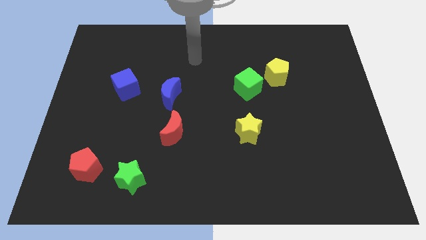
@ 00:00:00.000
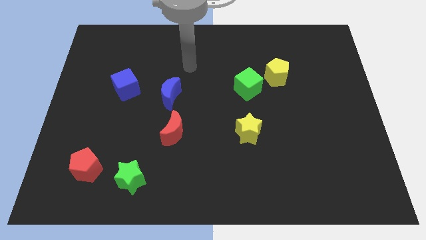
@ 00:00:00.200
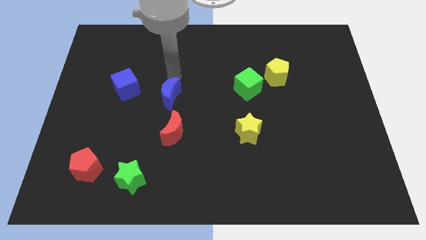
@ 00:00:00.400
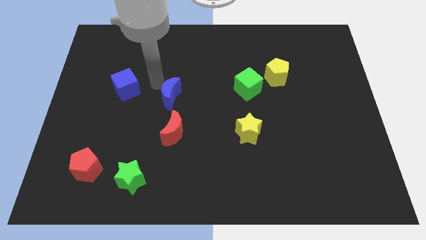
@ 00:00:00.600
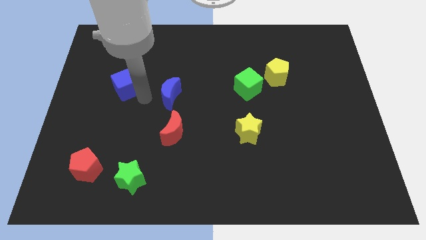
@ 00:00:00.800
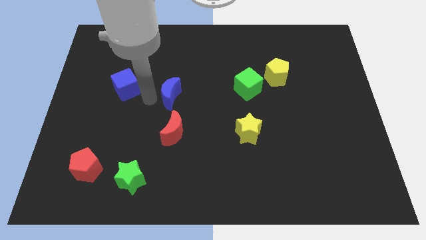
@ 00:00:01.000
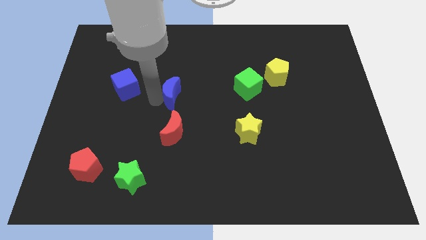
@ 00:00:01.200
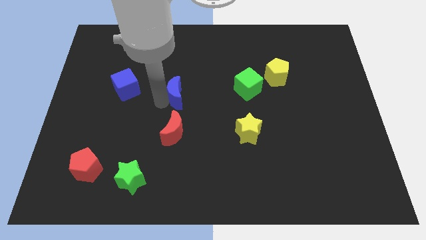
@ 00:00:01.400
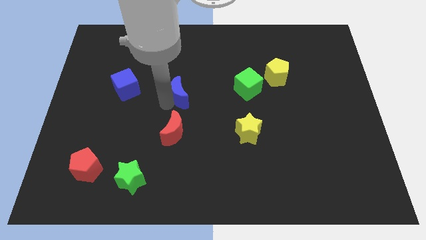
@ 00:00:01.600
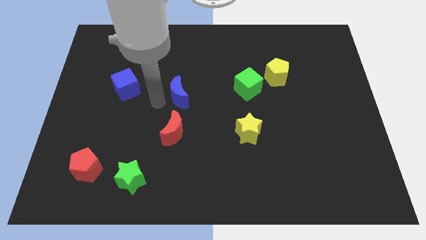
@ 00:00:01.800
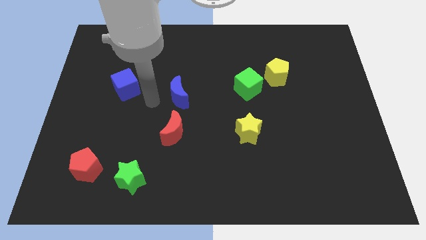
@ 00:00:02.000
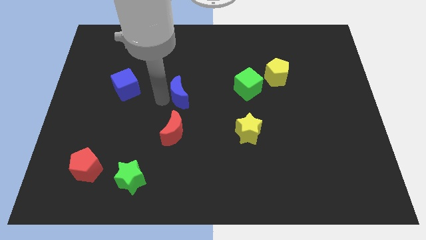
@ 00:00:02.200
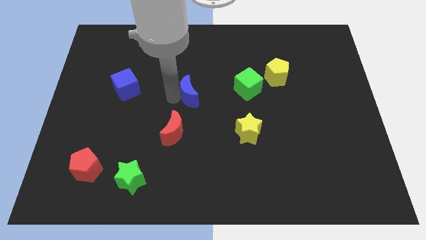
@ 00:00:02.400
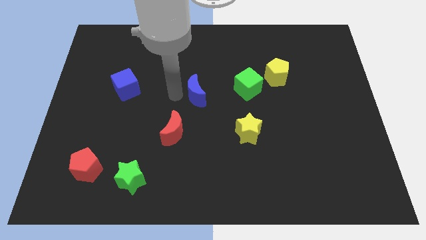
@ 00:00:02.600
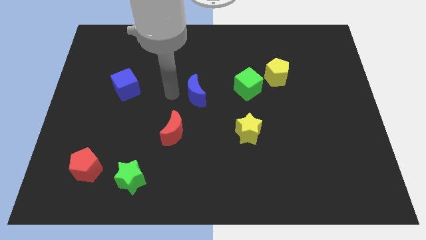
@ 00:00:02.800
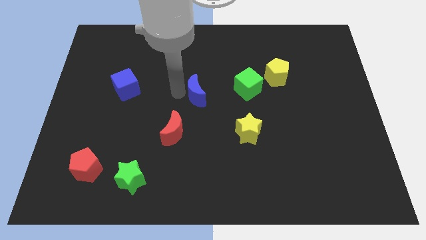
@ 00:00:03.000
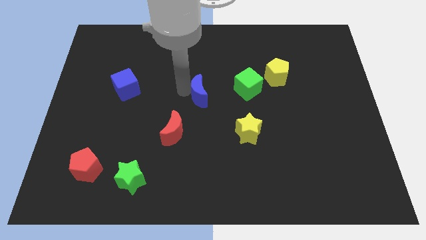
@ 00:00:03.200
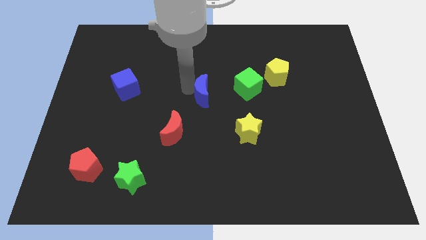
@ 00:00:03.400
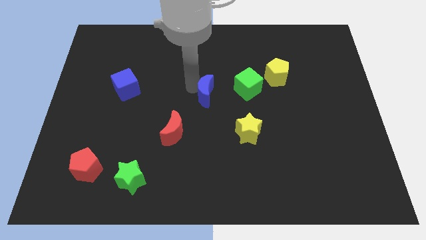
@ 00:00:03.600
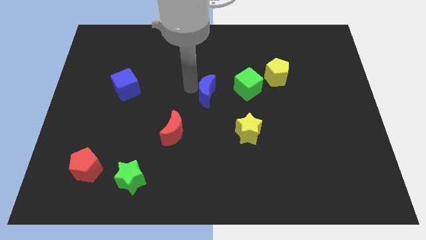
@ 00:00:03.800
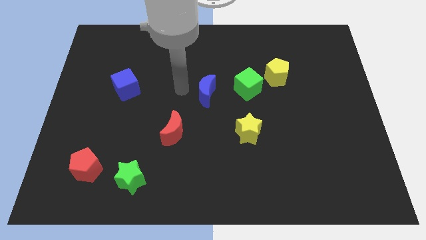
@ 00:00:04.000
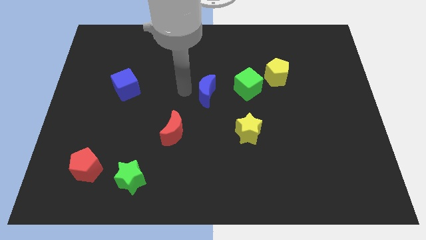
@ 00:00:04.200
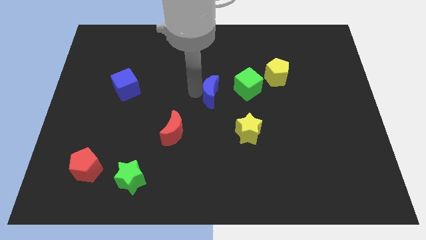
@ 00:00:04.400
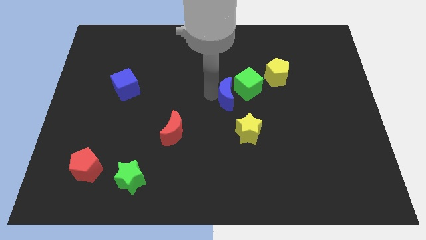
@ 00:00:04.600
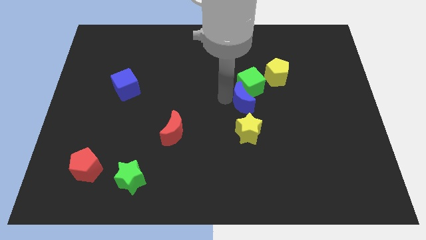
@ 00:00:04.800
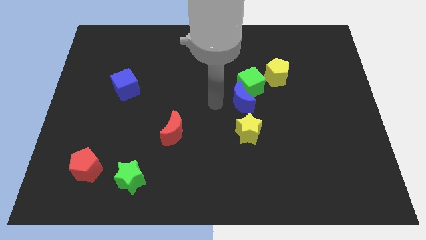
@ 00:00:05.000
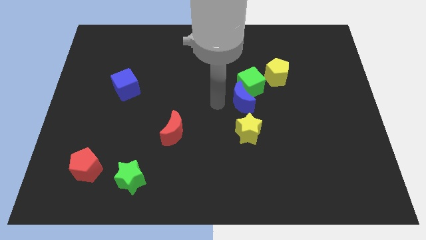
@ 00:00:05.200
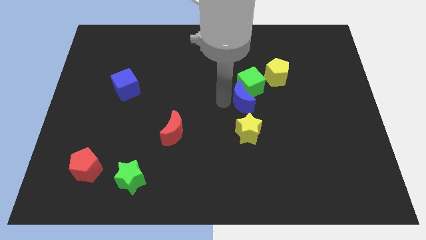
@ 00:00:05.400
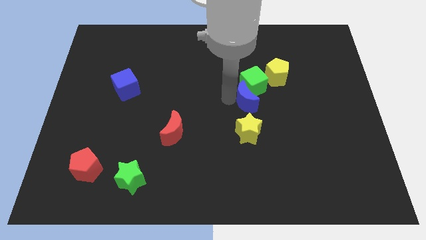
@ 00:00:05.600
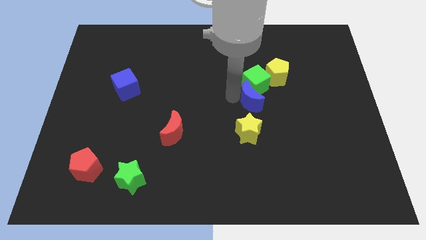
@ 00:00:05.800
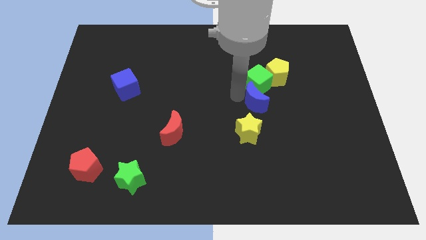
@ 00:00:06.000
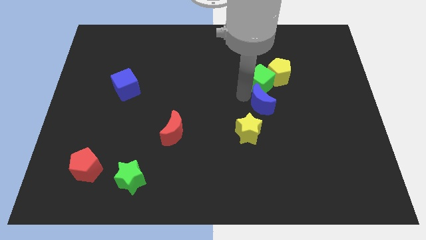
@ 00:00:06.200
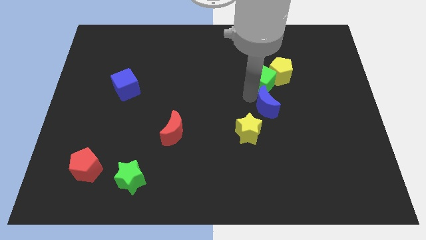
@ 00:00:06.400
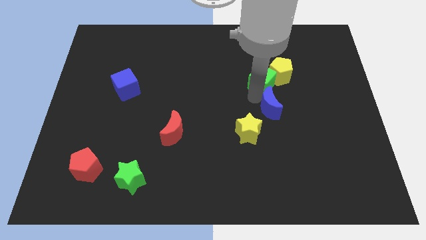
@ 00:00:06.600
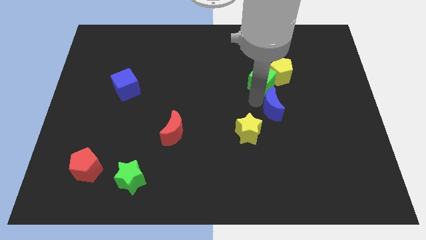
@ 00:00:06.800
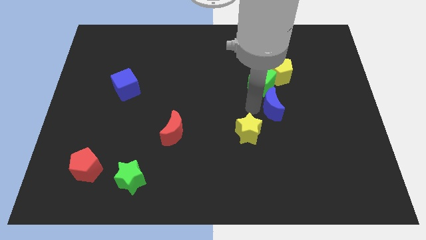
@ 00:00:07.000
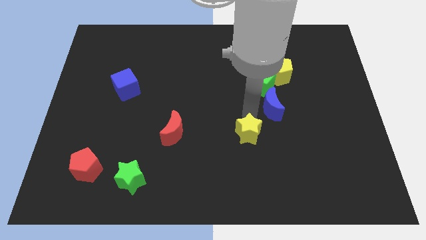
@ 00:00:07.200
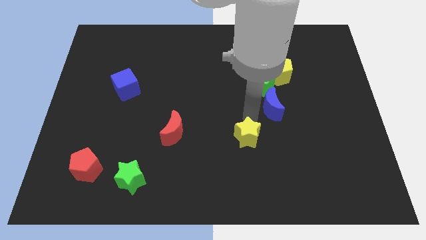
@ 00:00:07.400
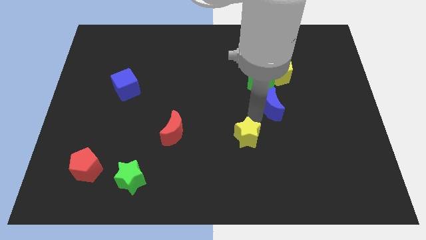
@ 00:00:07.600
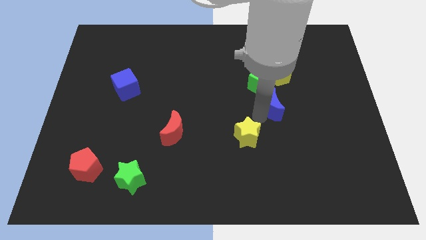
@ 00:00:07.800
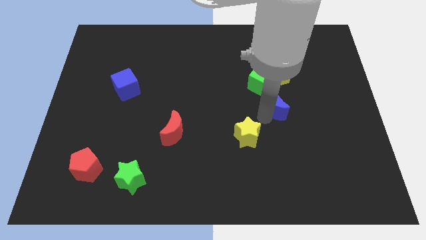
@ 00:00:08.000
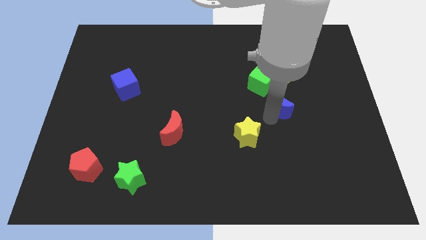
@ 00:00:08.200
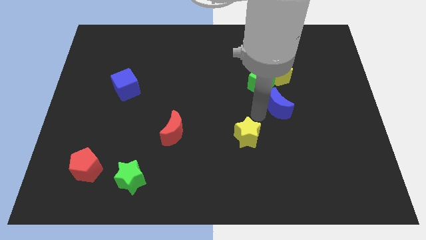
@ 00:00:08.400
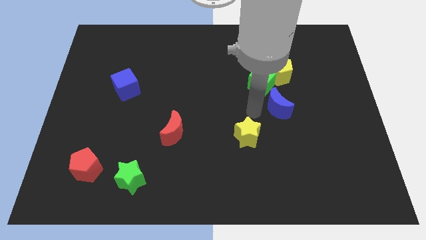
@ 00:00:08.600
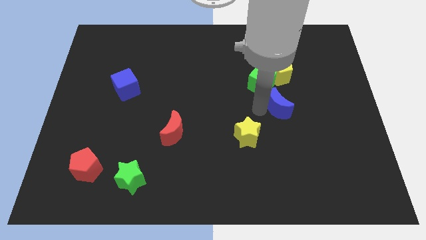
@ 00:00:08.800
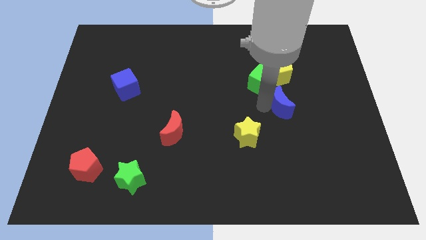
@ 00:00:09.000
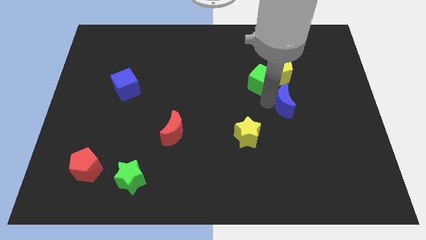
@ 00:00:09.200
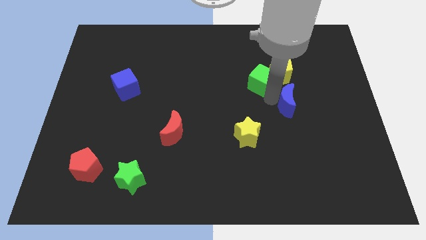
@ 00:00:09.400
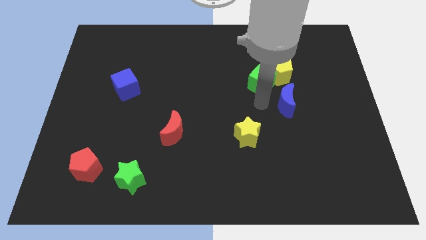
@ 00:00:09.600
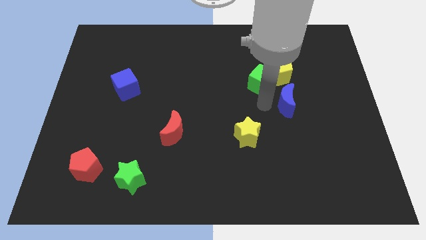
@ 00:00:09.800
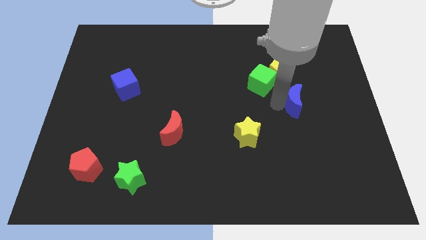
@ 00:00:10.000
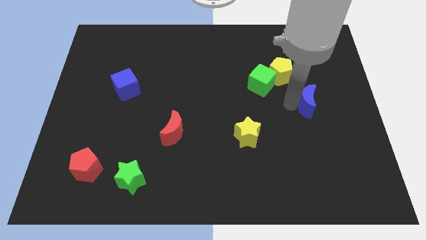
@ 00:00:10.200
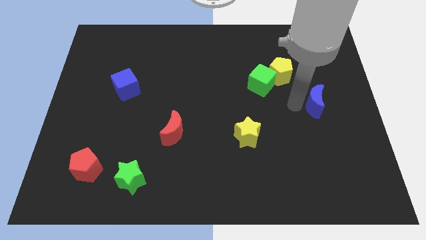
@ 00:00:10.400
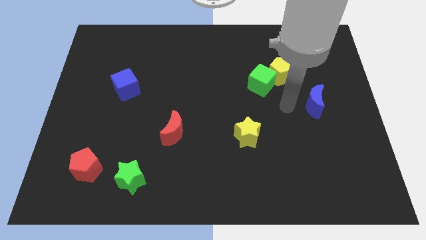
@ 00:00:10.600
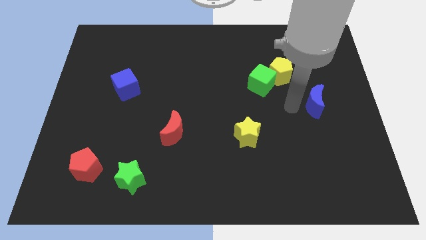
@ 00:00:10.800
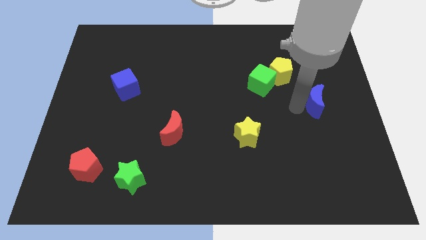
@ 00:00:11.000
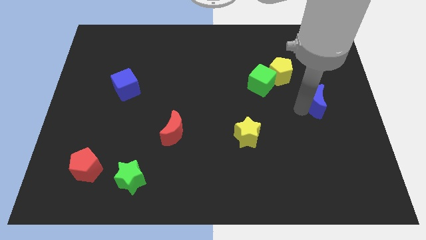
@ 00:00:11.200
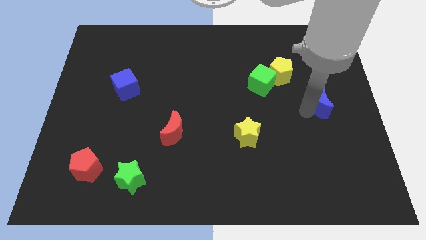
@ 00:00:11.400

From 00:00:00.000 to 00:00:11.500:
move the blue moon to the right side of the board

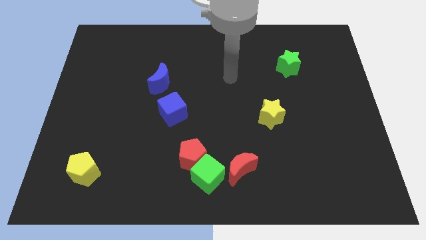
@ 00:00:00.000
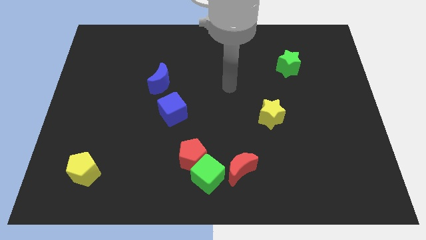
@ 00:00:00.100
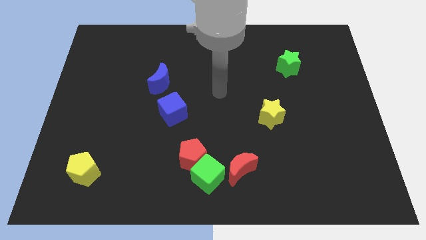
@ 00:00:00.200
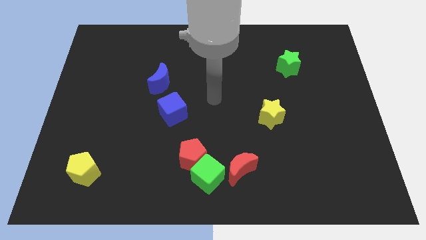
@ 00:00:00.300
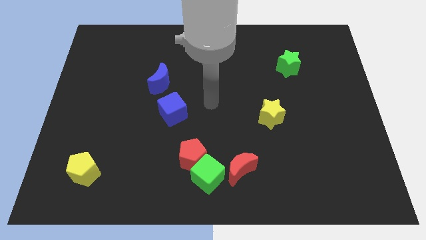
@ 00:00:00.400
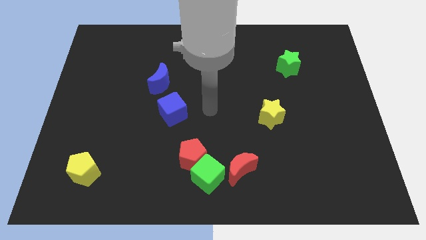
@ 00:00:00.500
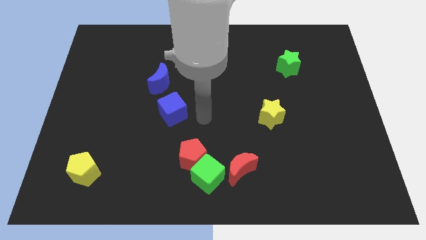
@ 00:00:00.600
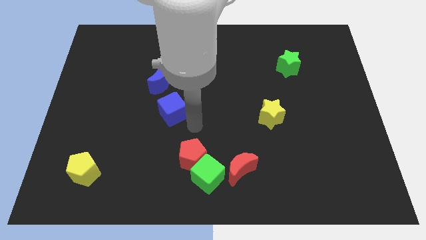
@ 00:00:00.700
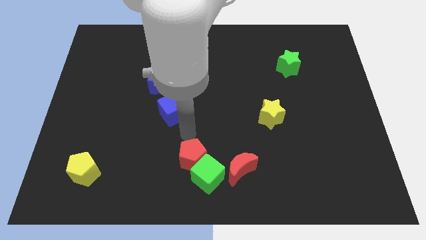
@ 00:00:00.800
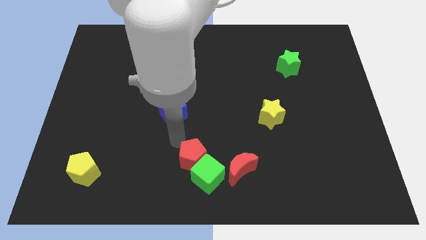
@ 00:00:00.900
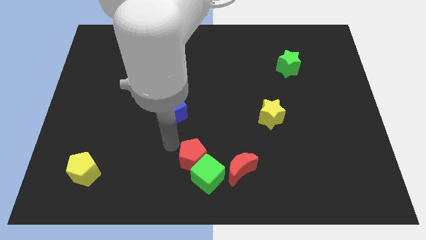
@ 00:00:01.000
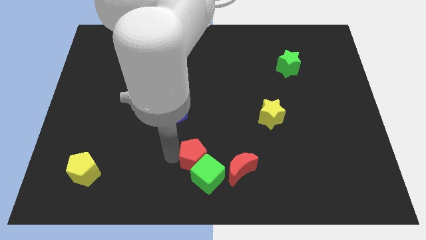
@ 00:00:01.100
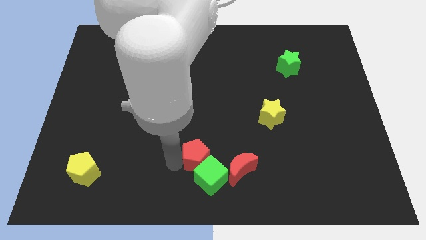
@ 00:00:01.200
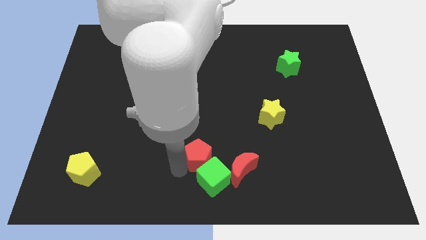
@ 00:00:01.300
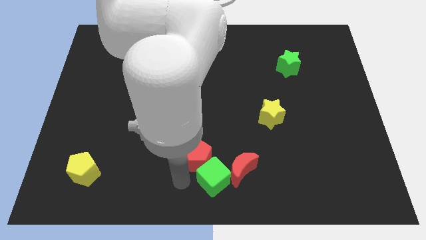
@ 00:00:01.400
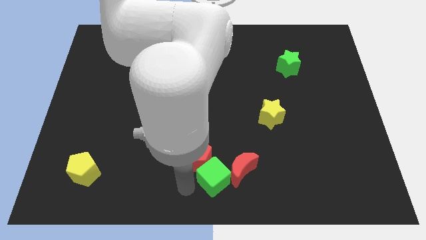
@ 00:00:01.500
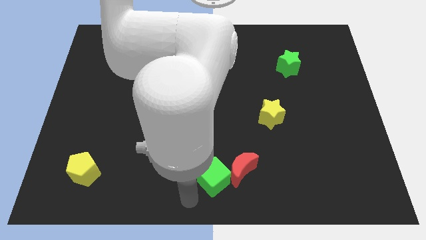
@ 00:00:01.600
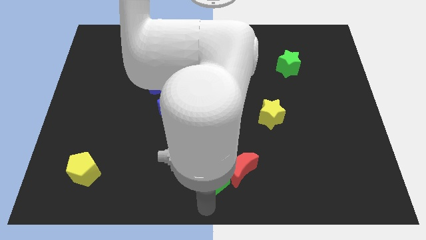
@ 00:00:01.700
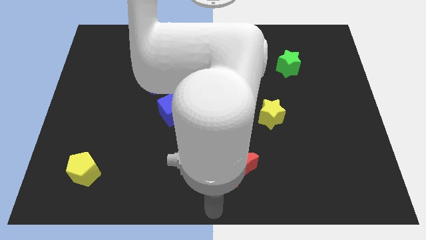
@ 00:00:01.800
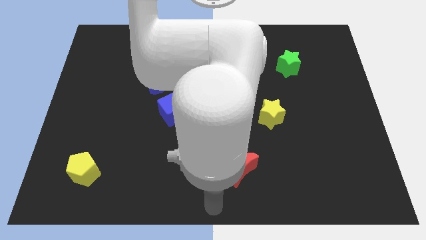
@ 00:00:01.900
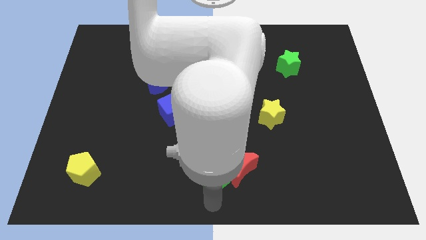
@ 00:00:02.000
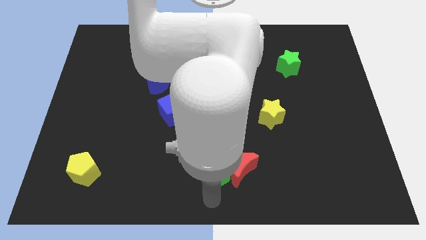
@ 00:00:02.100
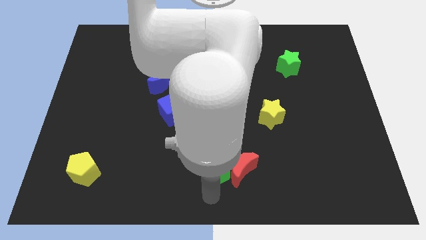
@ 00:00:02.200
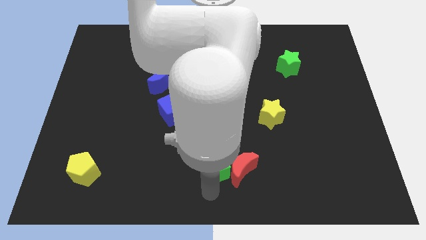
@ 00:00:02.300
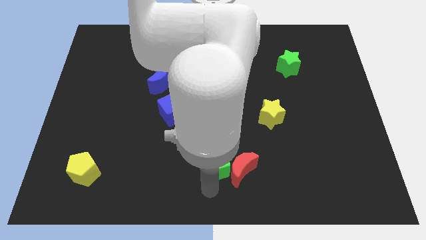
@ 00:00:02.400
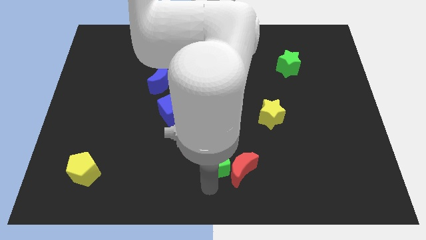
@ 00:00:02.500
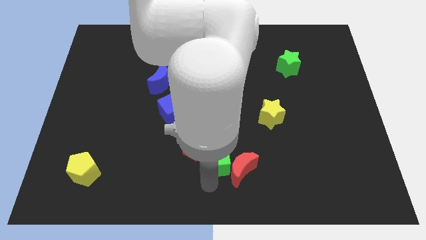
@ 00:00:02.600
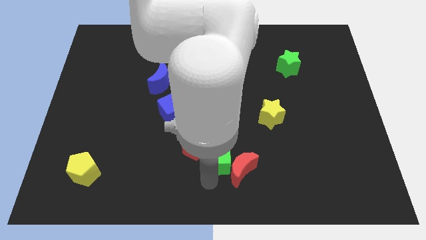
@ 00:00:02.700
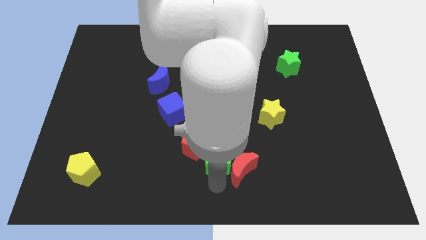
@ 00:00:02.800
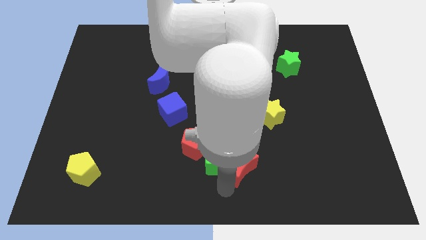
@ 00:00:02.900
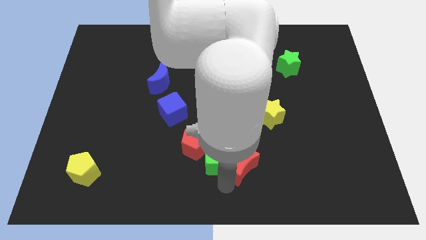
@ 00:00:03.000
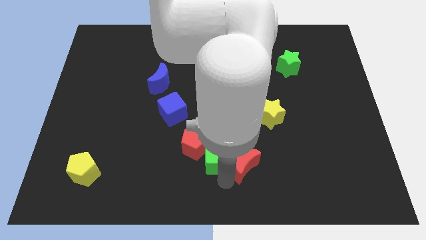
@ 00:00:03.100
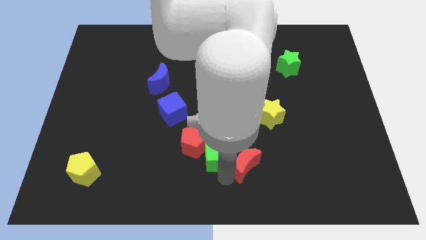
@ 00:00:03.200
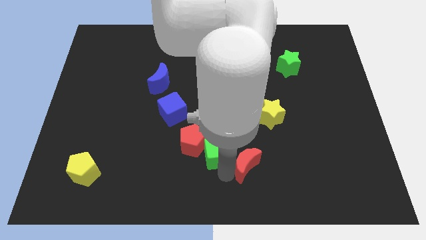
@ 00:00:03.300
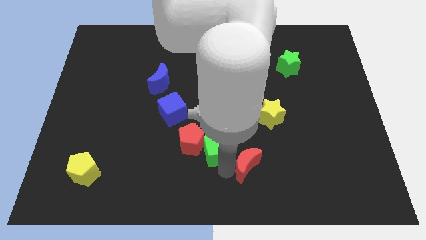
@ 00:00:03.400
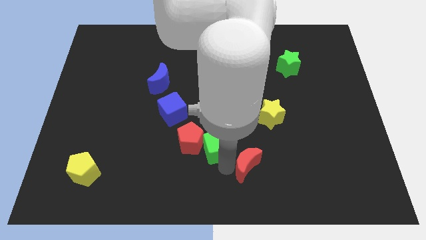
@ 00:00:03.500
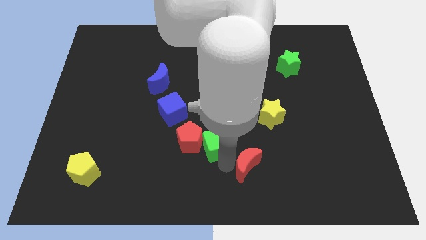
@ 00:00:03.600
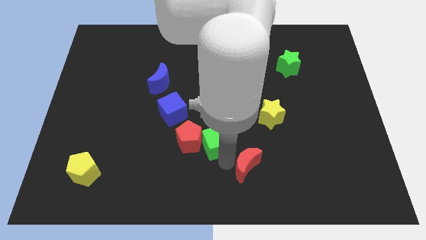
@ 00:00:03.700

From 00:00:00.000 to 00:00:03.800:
push the green cube to the center
